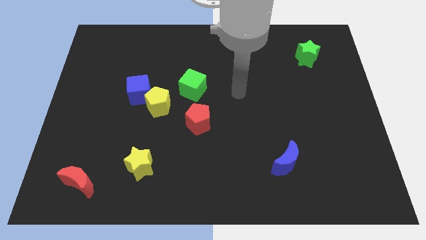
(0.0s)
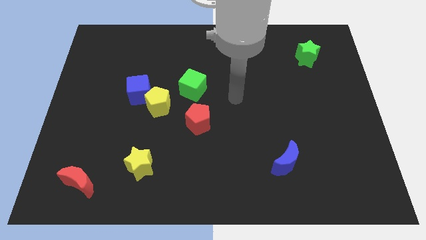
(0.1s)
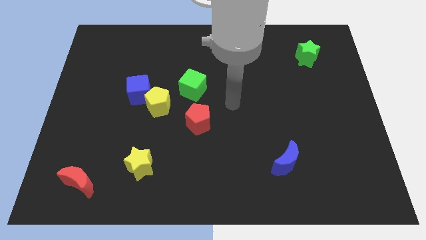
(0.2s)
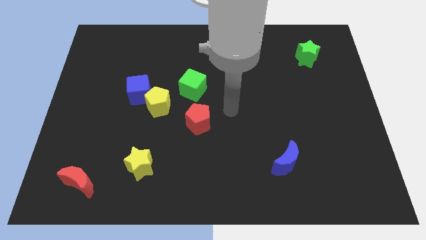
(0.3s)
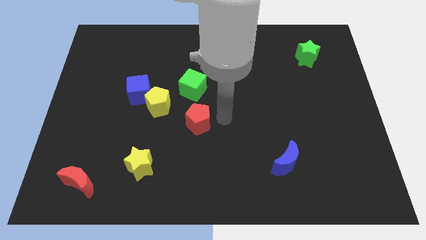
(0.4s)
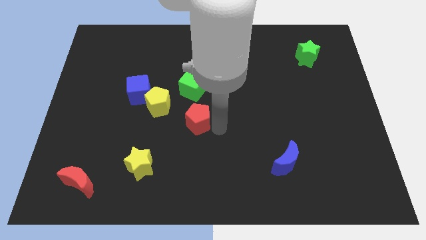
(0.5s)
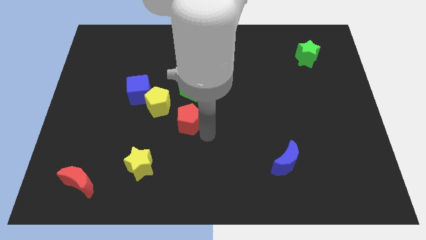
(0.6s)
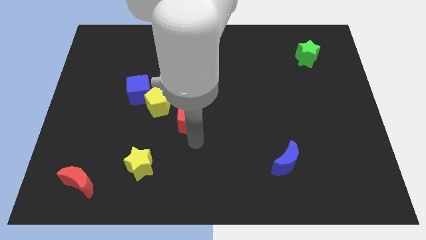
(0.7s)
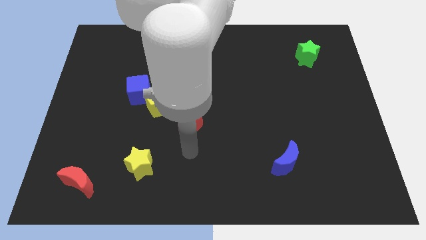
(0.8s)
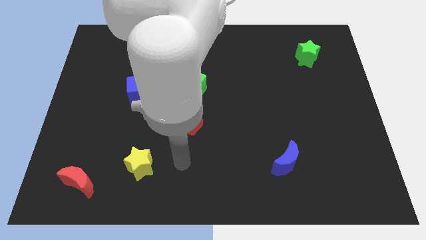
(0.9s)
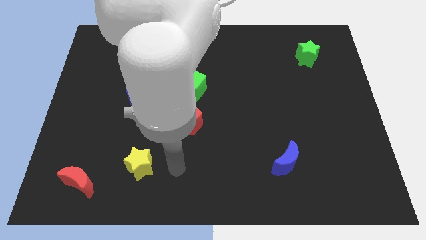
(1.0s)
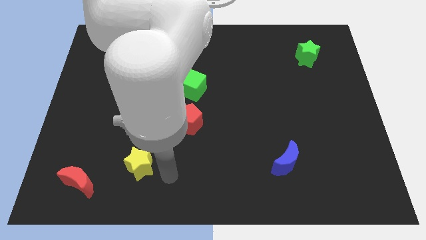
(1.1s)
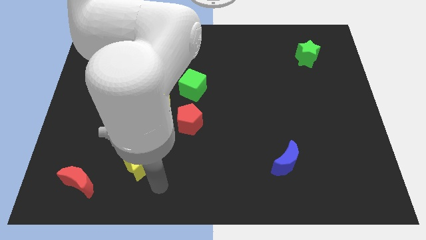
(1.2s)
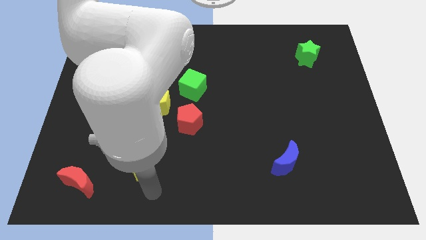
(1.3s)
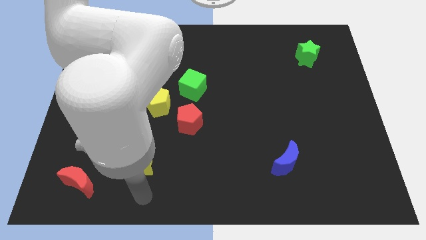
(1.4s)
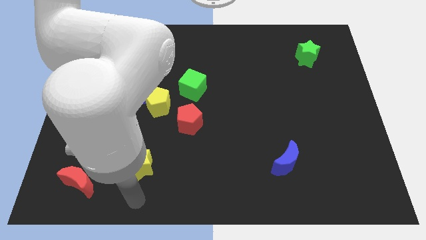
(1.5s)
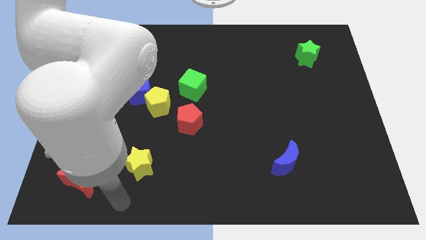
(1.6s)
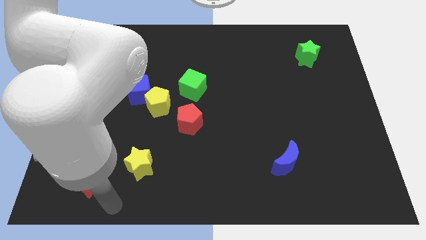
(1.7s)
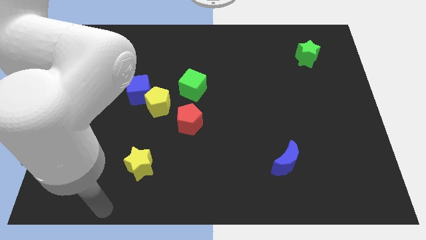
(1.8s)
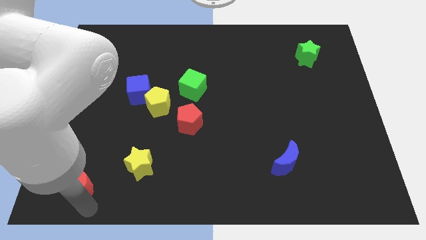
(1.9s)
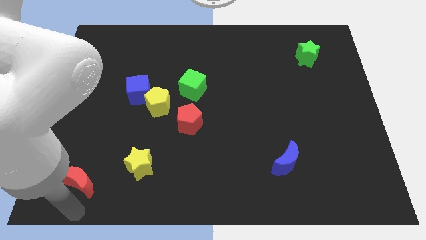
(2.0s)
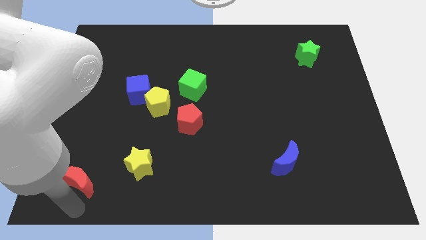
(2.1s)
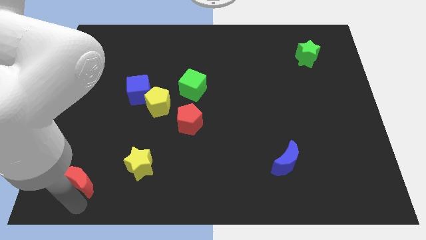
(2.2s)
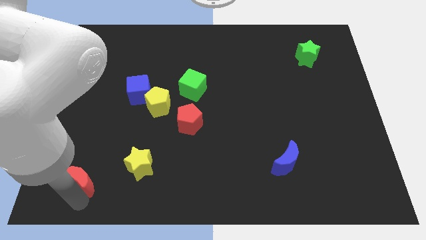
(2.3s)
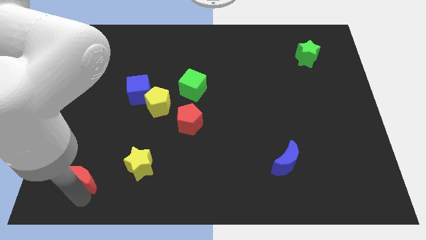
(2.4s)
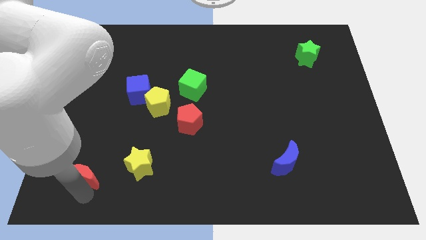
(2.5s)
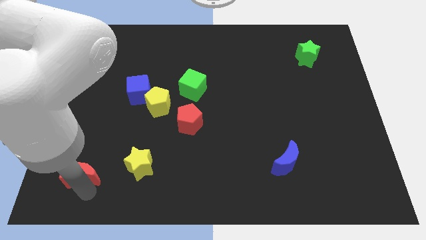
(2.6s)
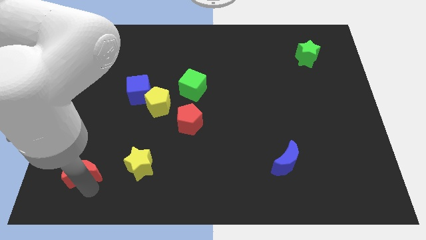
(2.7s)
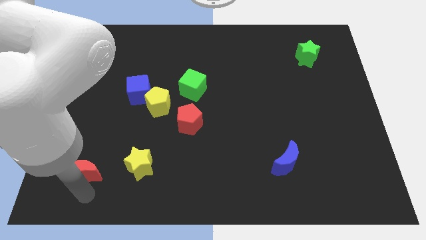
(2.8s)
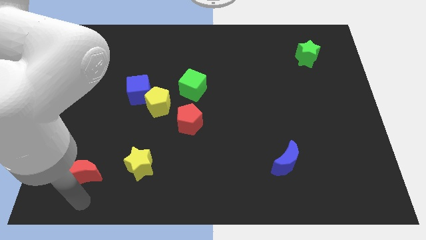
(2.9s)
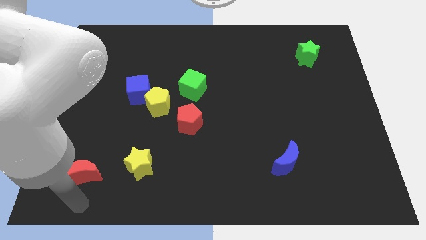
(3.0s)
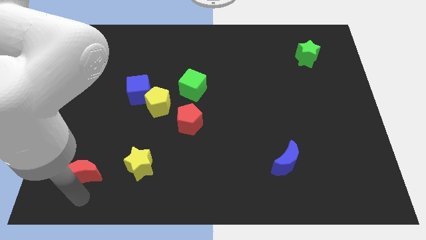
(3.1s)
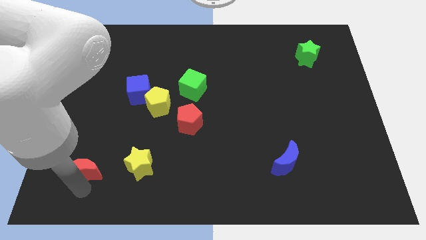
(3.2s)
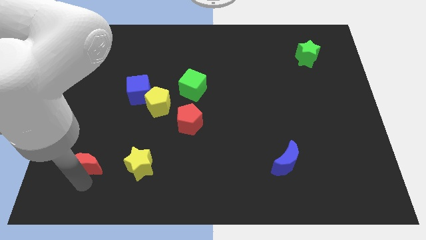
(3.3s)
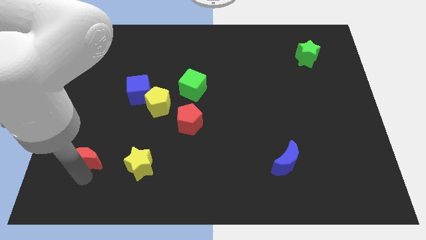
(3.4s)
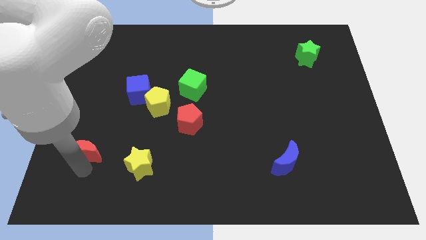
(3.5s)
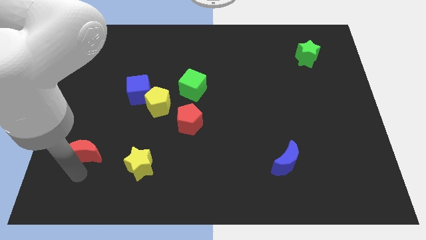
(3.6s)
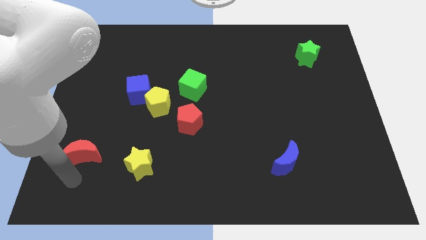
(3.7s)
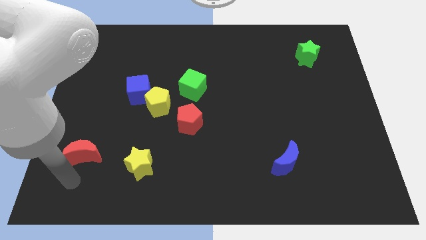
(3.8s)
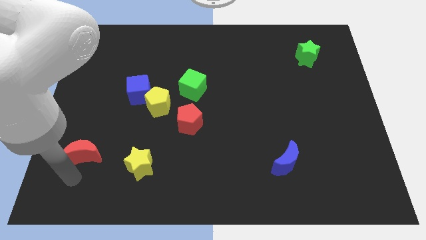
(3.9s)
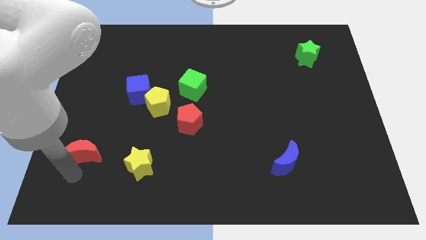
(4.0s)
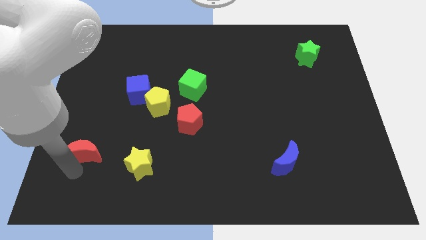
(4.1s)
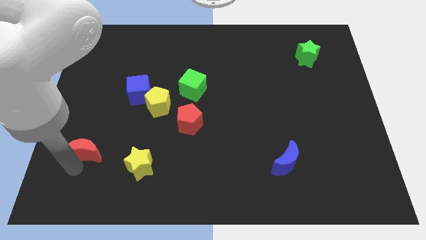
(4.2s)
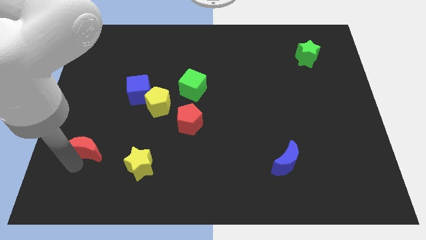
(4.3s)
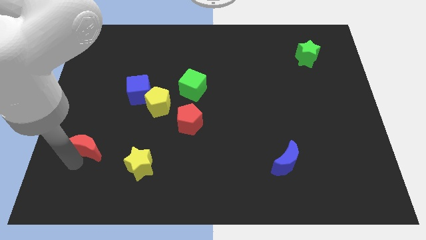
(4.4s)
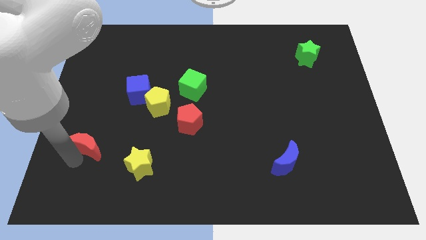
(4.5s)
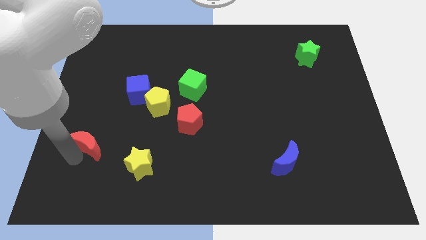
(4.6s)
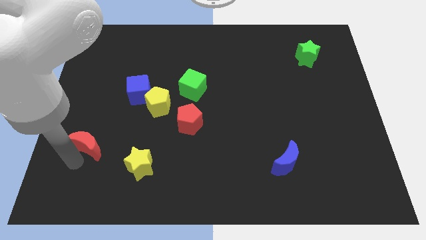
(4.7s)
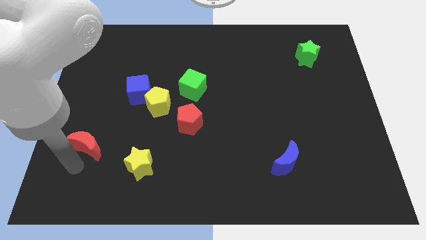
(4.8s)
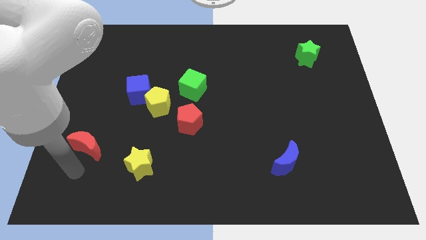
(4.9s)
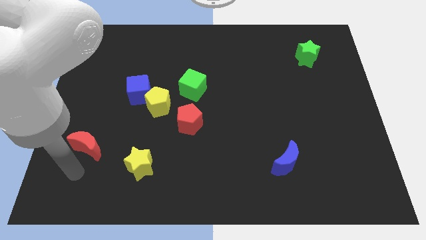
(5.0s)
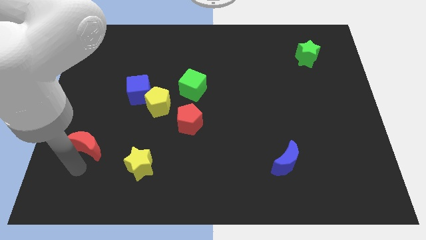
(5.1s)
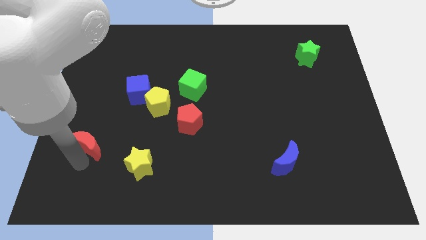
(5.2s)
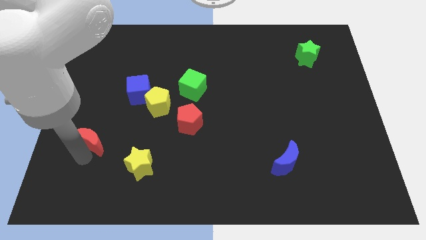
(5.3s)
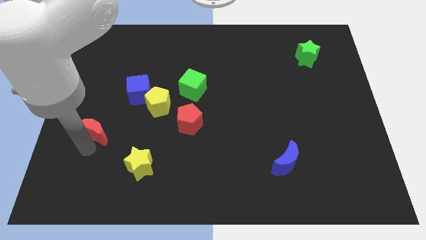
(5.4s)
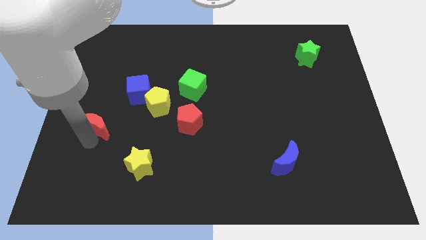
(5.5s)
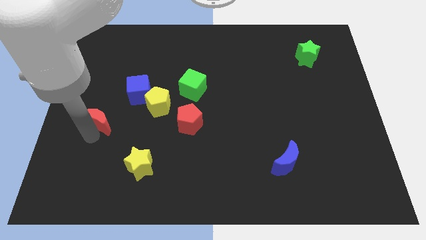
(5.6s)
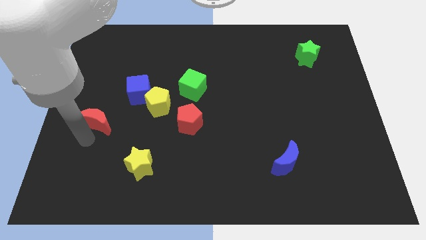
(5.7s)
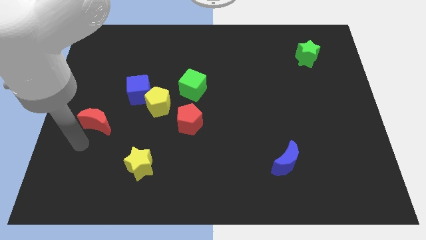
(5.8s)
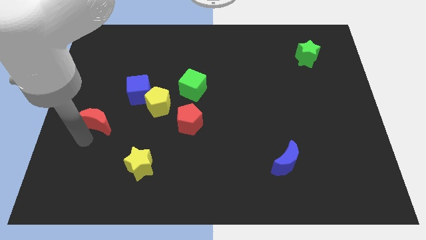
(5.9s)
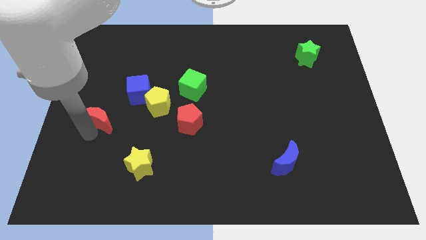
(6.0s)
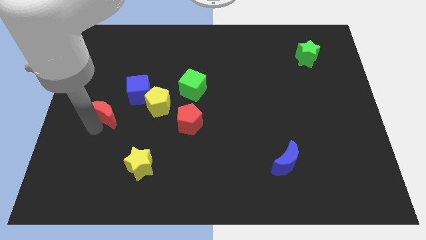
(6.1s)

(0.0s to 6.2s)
slide the red moon just left of the yellow pentagon

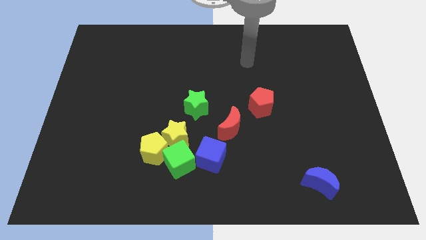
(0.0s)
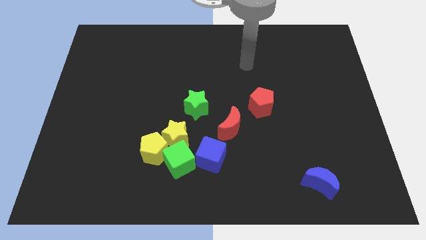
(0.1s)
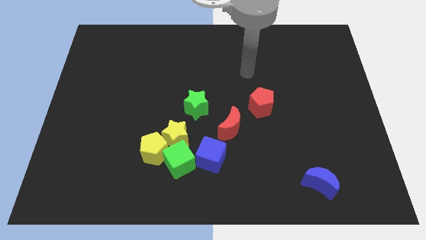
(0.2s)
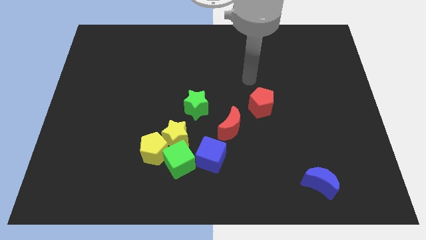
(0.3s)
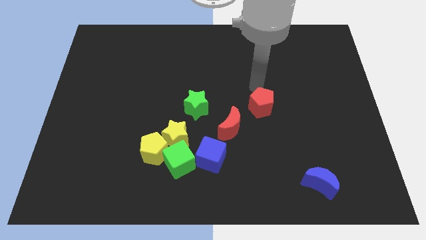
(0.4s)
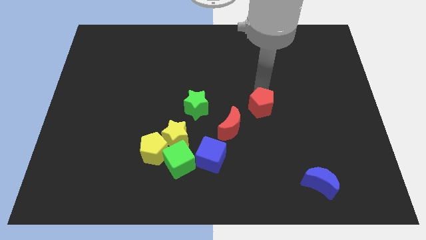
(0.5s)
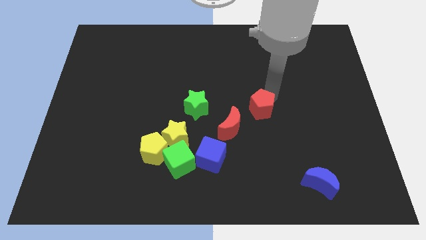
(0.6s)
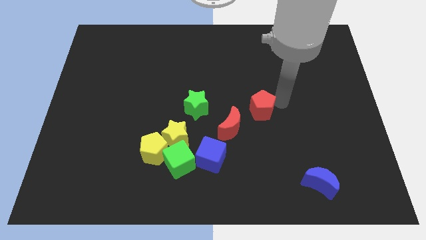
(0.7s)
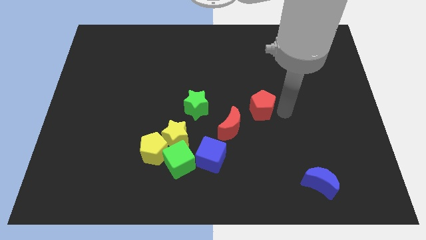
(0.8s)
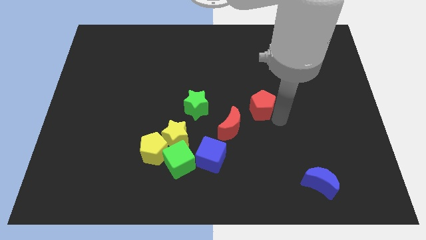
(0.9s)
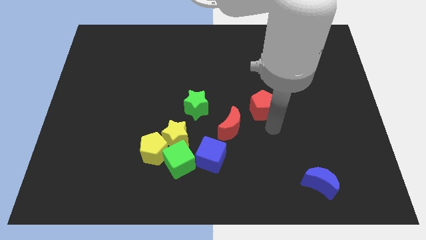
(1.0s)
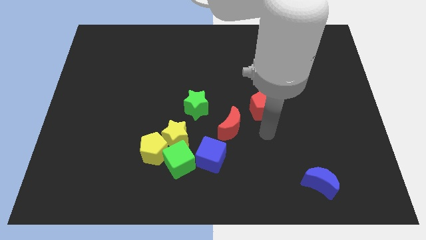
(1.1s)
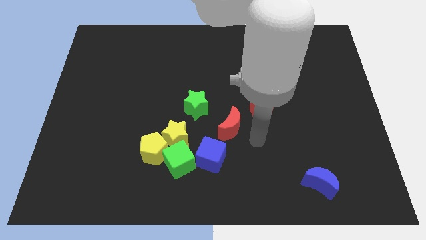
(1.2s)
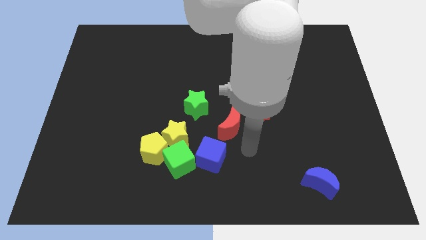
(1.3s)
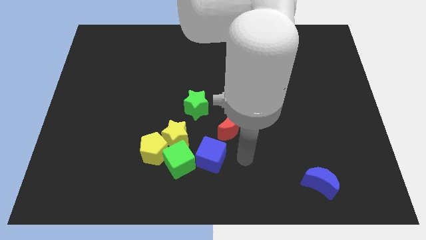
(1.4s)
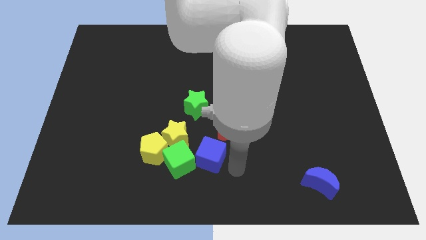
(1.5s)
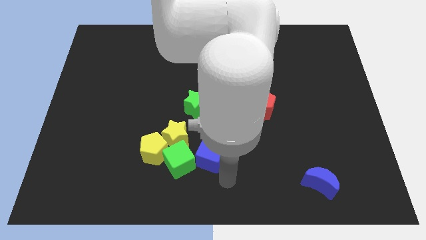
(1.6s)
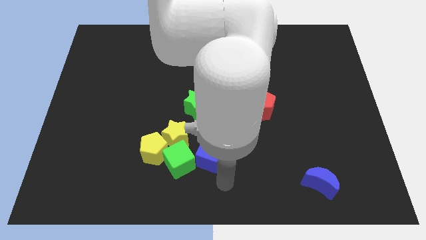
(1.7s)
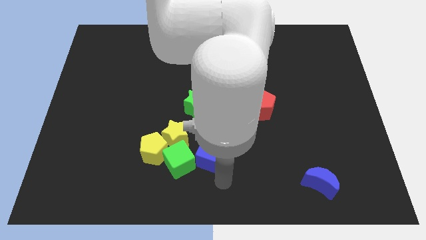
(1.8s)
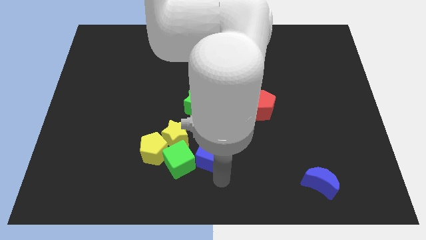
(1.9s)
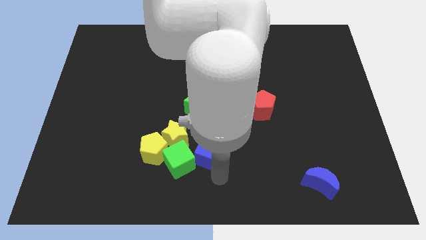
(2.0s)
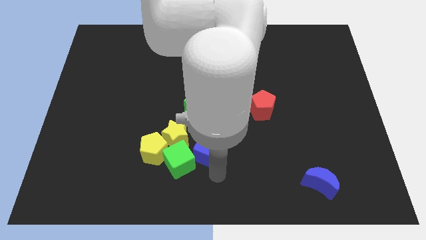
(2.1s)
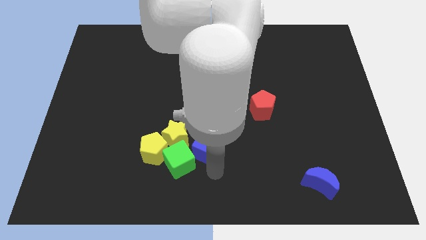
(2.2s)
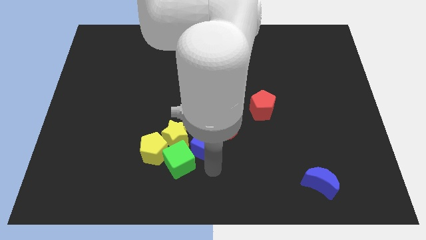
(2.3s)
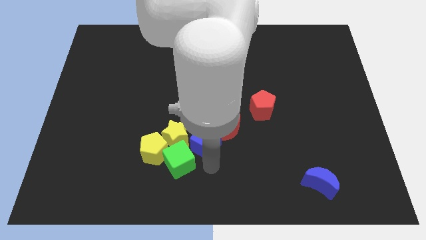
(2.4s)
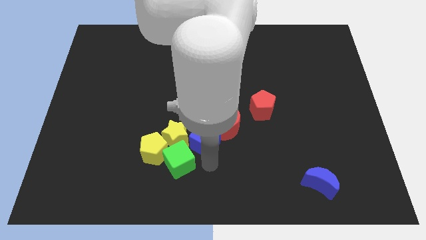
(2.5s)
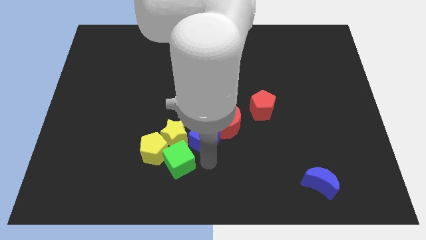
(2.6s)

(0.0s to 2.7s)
put the blue cube above the green cube
